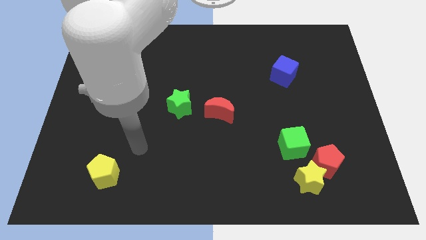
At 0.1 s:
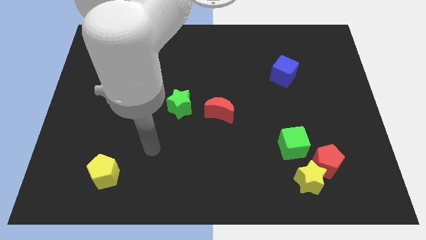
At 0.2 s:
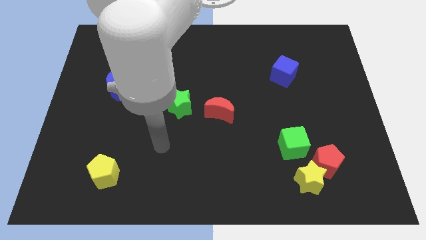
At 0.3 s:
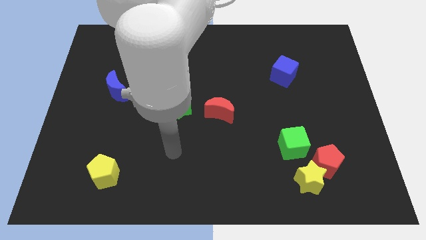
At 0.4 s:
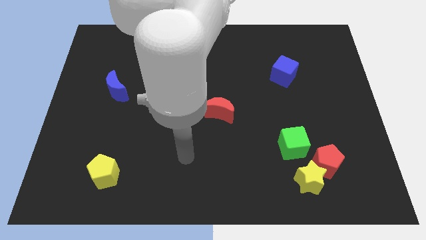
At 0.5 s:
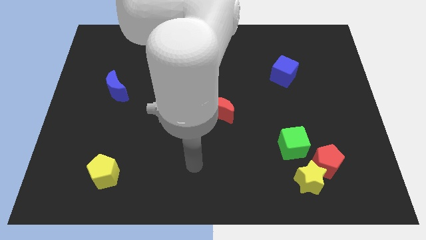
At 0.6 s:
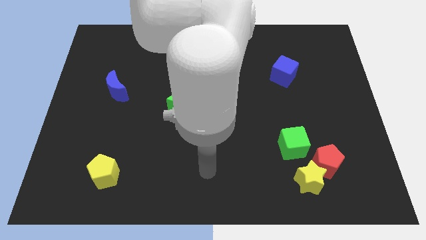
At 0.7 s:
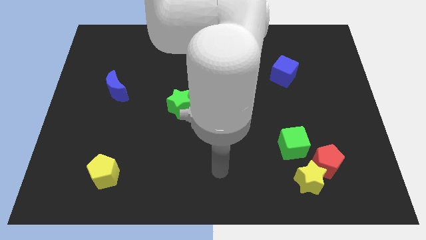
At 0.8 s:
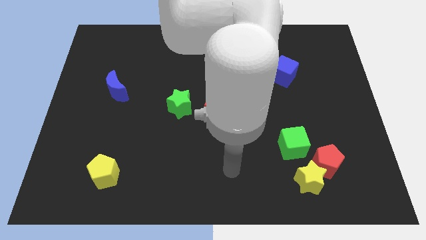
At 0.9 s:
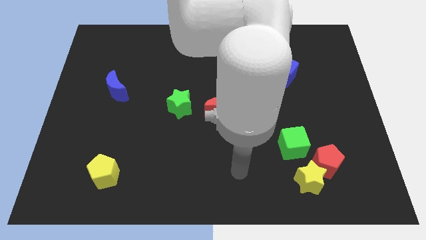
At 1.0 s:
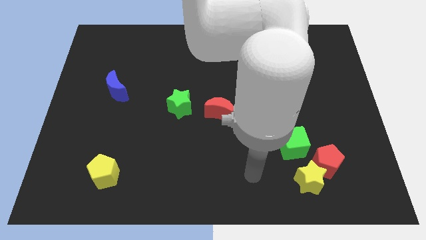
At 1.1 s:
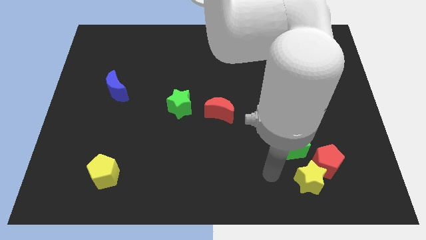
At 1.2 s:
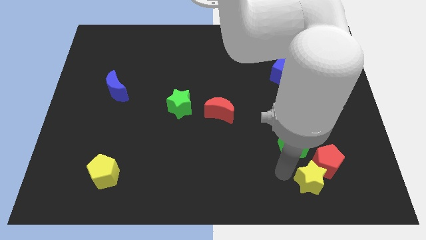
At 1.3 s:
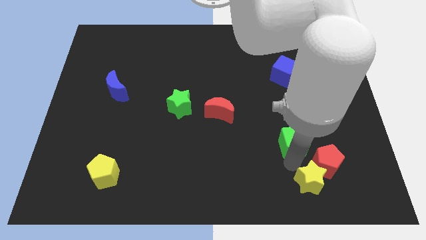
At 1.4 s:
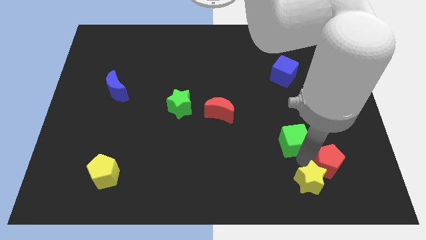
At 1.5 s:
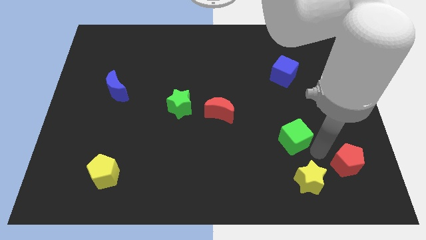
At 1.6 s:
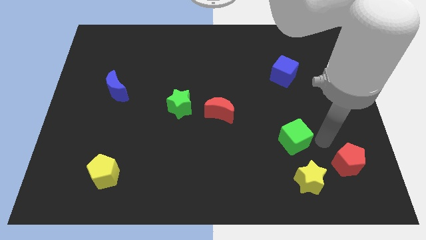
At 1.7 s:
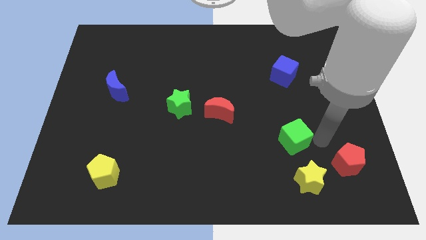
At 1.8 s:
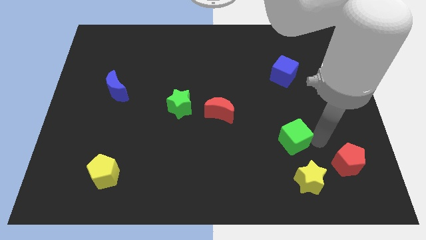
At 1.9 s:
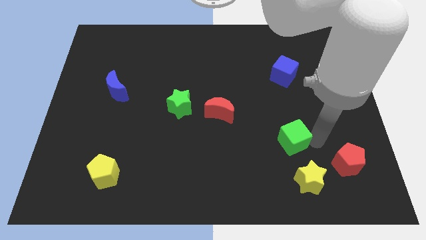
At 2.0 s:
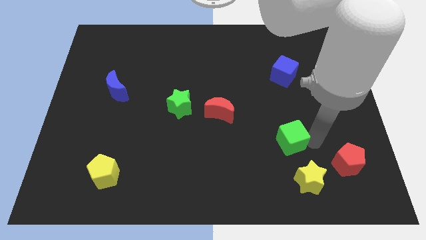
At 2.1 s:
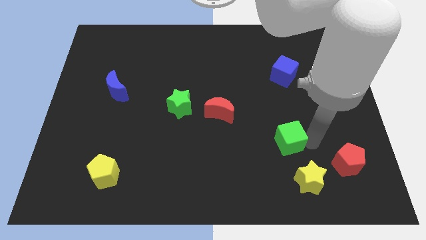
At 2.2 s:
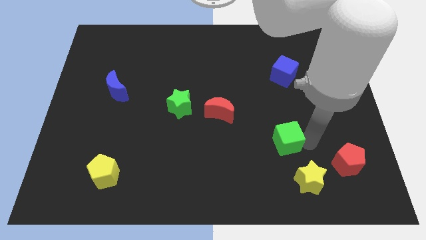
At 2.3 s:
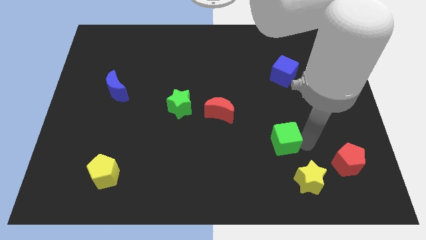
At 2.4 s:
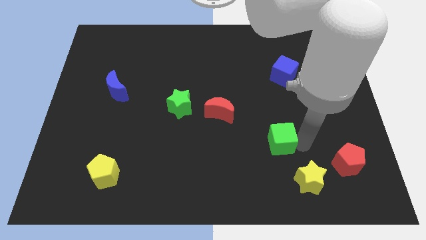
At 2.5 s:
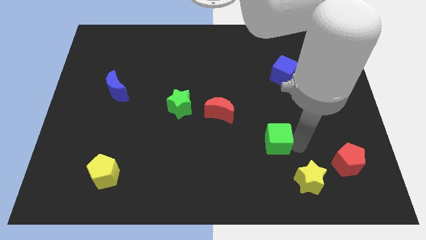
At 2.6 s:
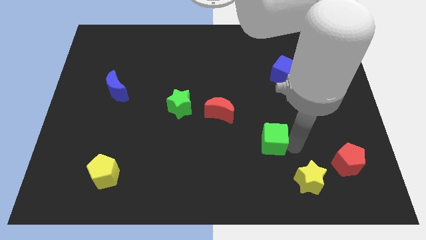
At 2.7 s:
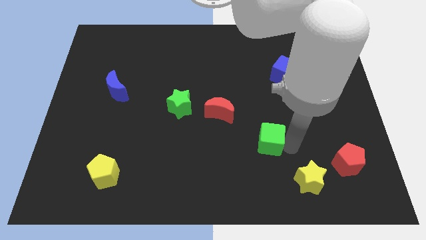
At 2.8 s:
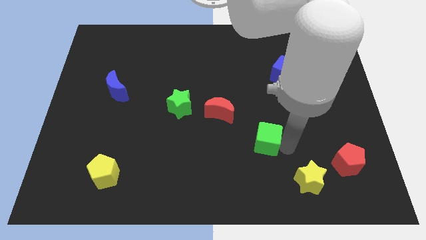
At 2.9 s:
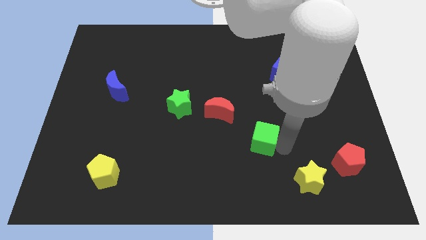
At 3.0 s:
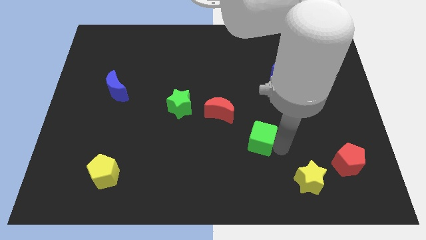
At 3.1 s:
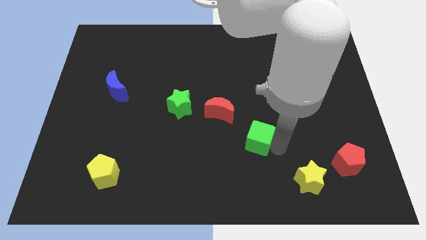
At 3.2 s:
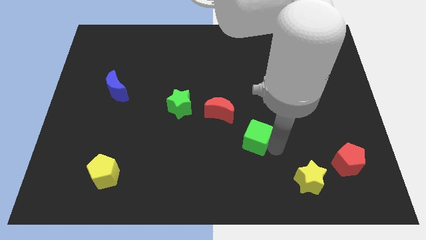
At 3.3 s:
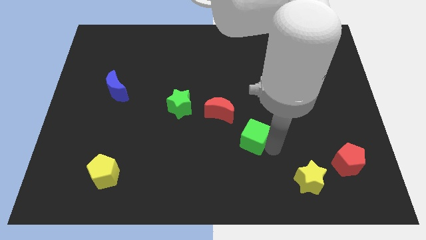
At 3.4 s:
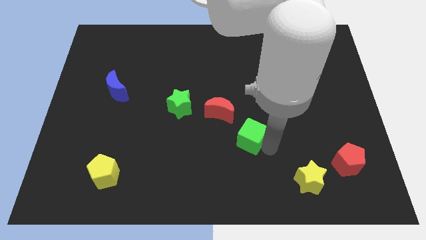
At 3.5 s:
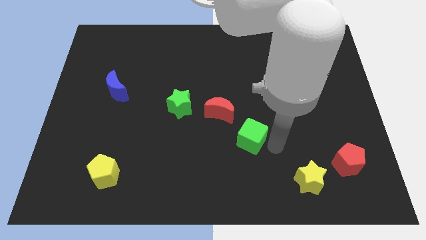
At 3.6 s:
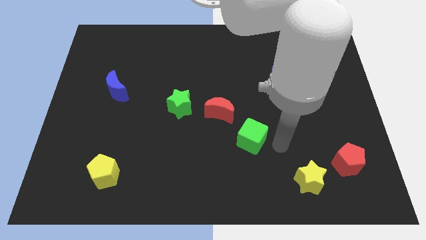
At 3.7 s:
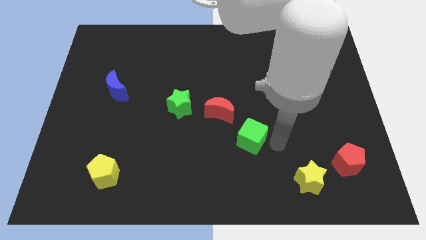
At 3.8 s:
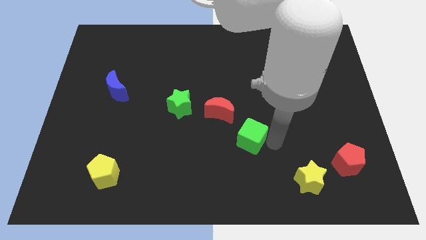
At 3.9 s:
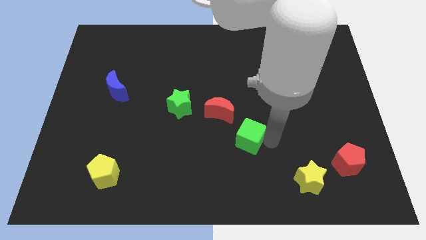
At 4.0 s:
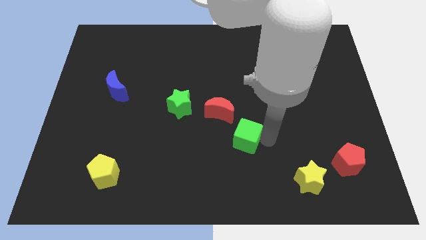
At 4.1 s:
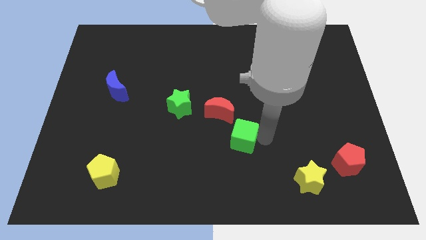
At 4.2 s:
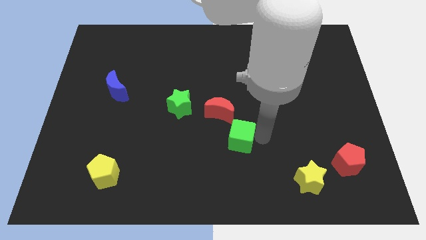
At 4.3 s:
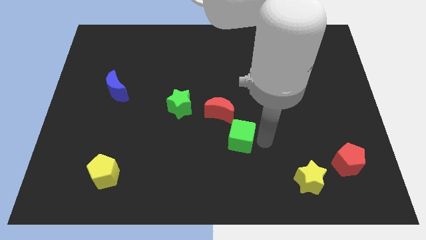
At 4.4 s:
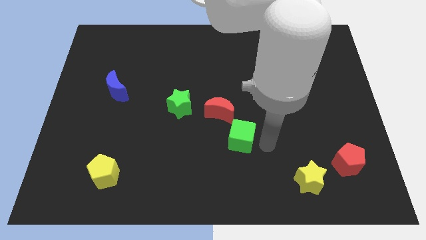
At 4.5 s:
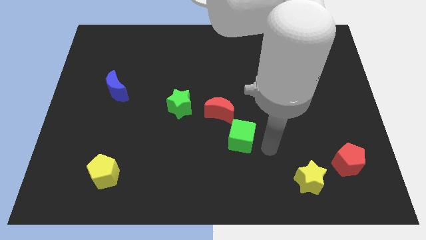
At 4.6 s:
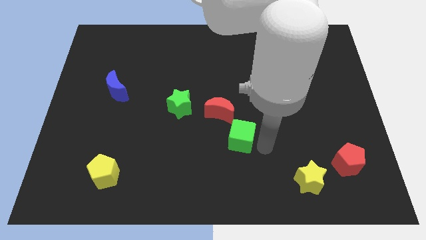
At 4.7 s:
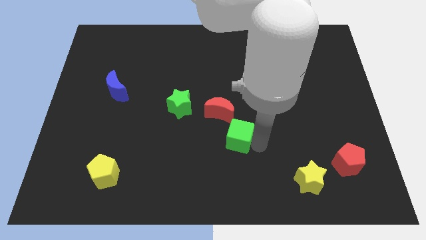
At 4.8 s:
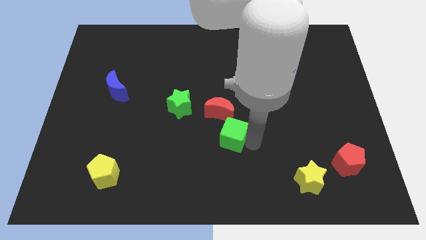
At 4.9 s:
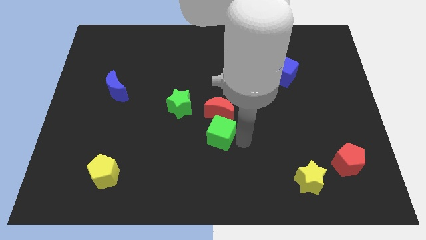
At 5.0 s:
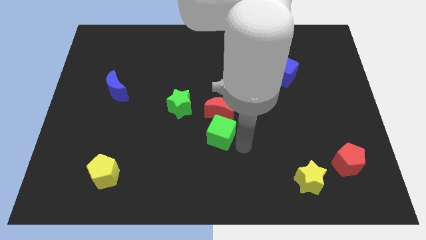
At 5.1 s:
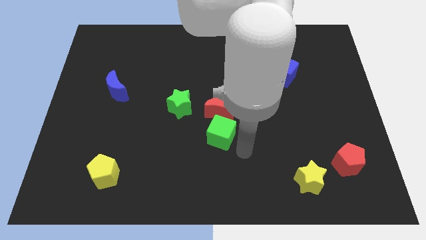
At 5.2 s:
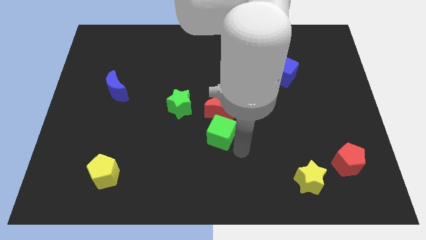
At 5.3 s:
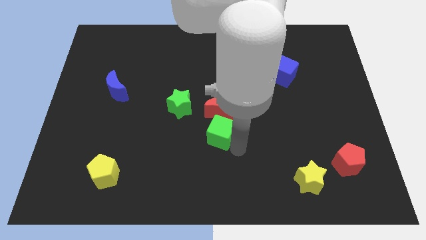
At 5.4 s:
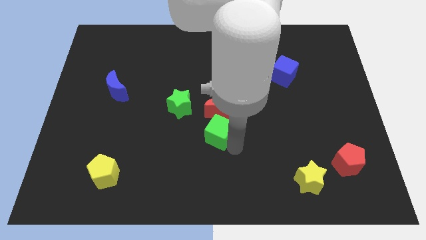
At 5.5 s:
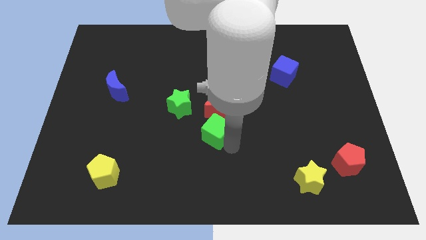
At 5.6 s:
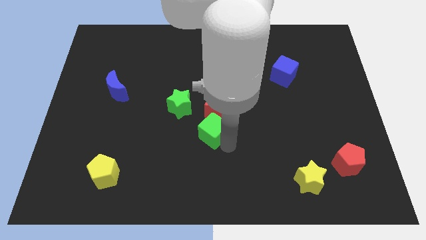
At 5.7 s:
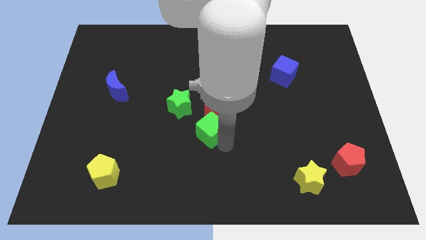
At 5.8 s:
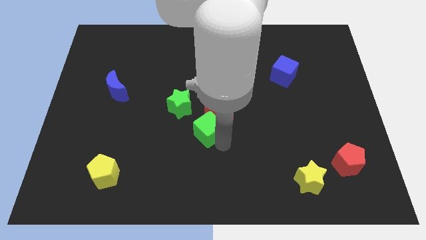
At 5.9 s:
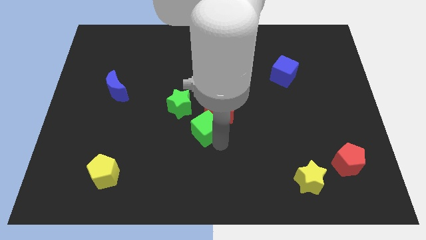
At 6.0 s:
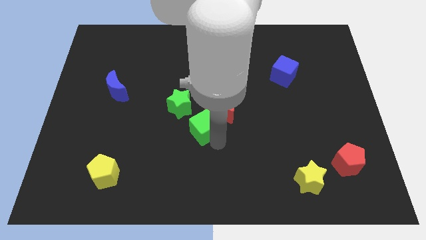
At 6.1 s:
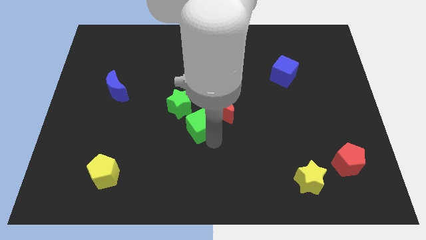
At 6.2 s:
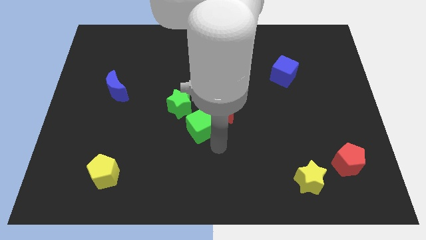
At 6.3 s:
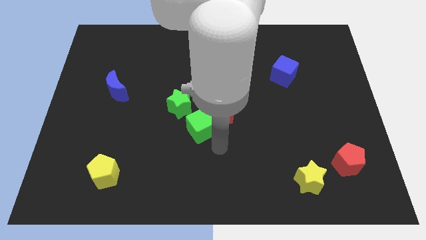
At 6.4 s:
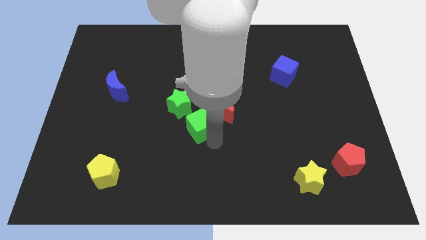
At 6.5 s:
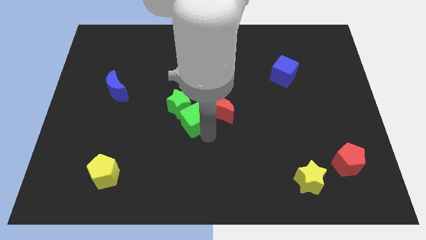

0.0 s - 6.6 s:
push the green cube to the green star

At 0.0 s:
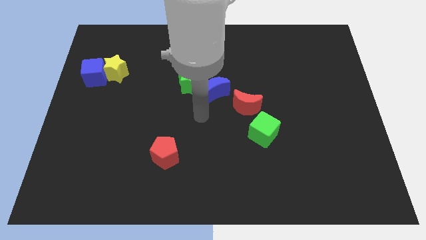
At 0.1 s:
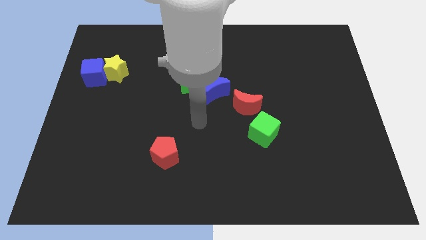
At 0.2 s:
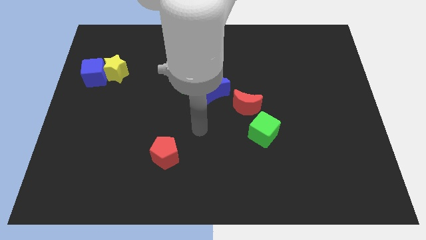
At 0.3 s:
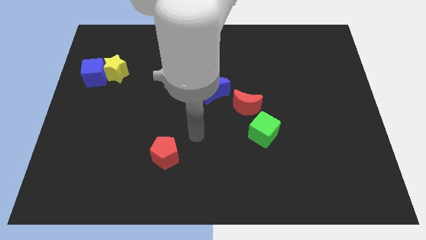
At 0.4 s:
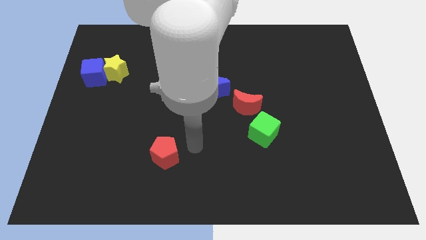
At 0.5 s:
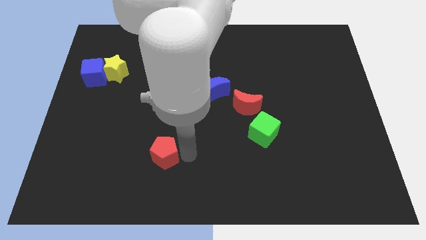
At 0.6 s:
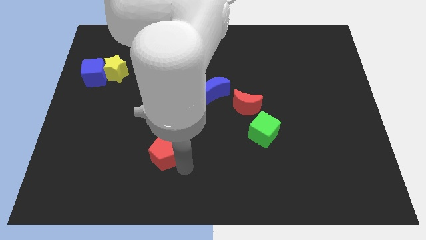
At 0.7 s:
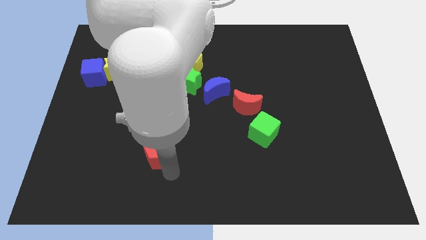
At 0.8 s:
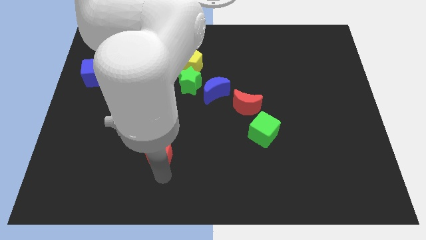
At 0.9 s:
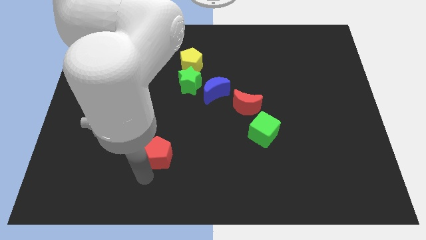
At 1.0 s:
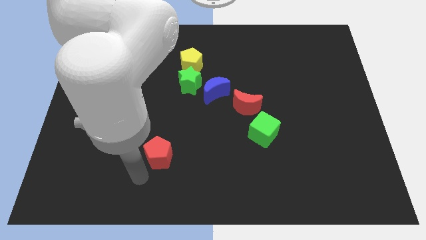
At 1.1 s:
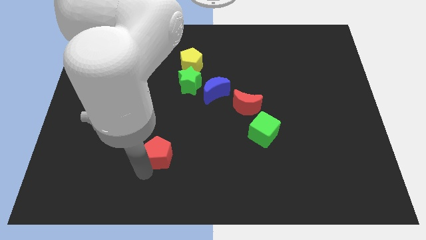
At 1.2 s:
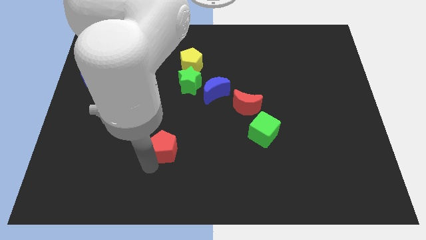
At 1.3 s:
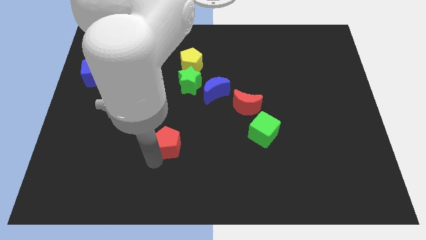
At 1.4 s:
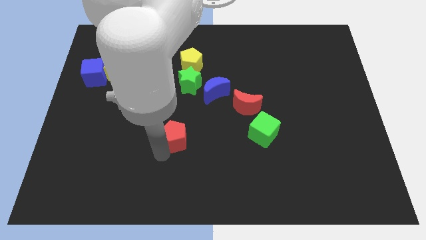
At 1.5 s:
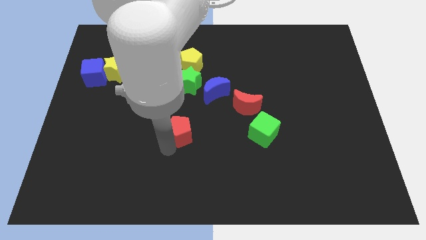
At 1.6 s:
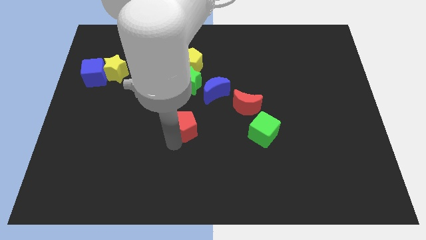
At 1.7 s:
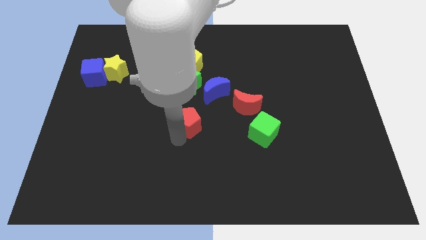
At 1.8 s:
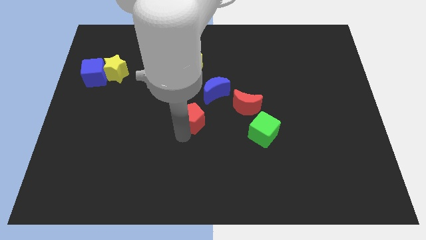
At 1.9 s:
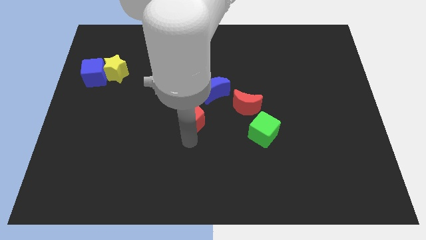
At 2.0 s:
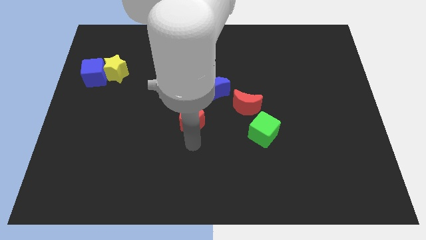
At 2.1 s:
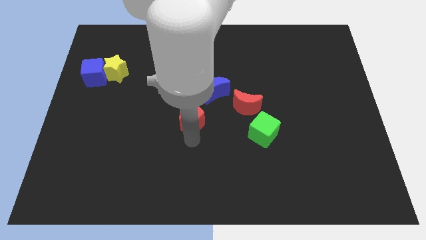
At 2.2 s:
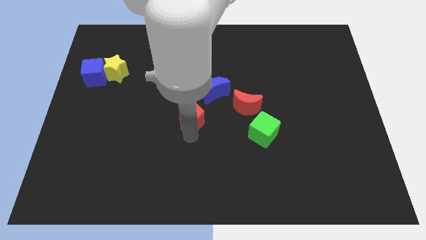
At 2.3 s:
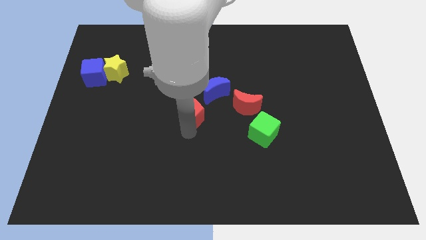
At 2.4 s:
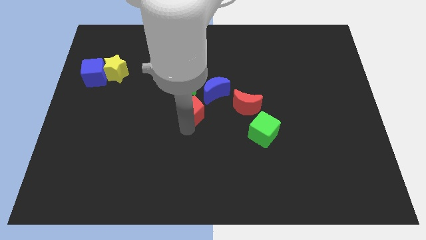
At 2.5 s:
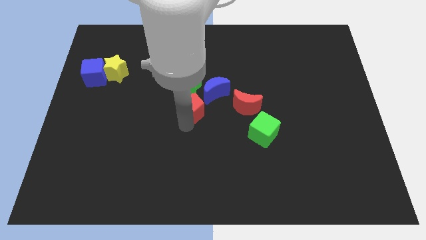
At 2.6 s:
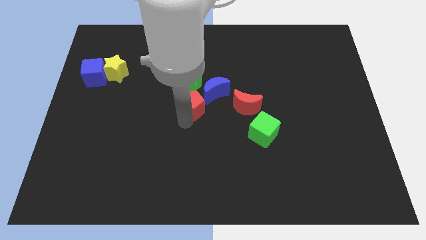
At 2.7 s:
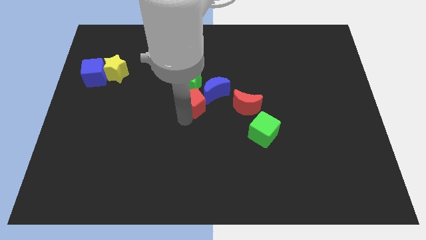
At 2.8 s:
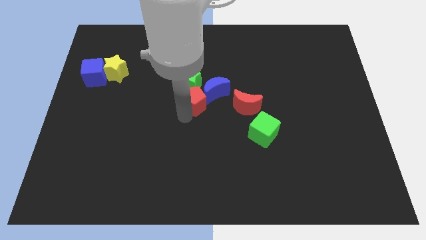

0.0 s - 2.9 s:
push the red pentagon close to the green star
